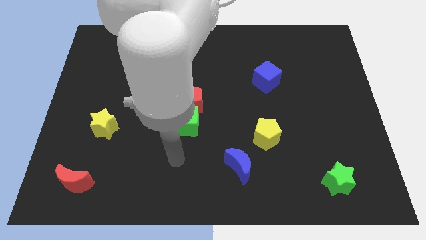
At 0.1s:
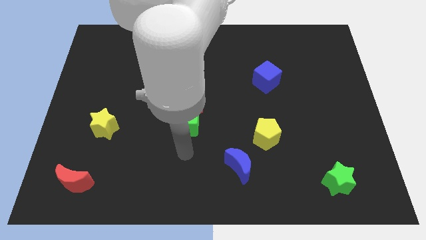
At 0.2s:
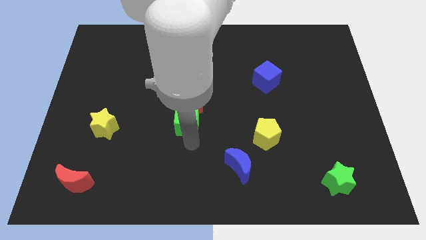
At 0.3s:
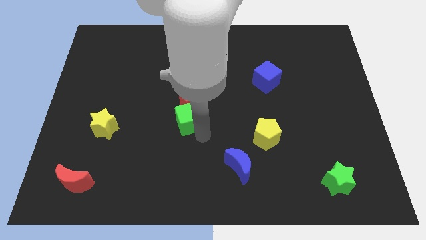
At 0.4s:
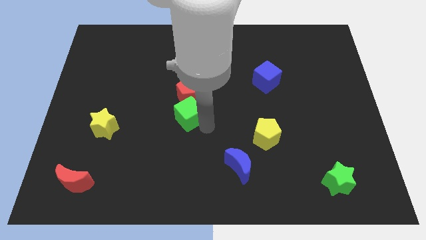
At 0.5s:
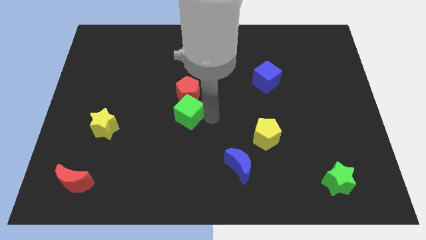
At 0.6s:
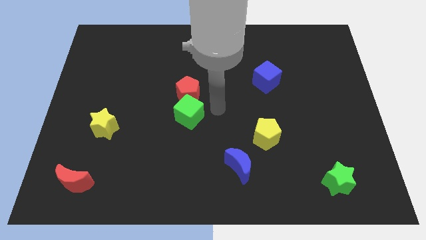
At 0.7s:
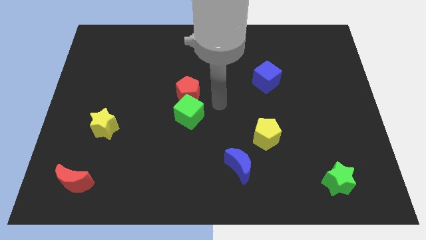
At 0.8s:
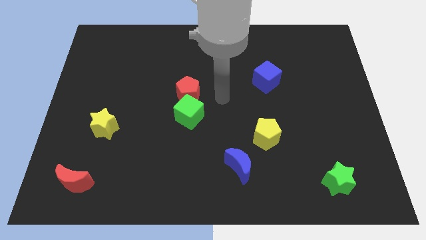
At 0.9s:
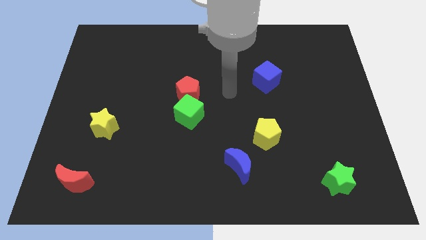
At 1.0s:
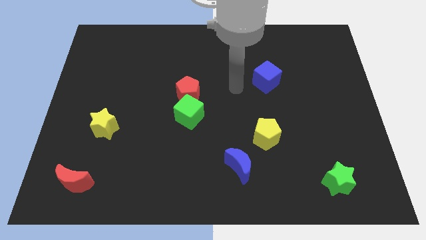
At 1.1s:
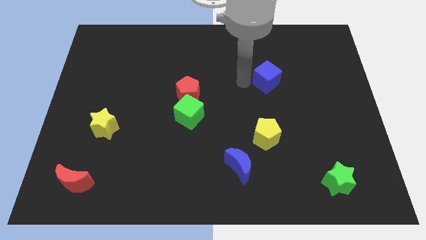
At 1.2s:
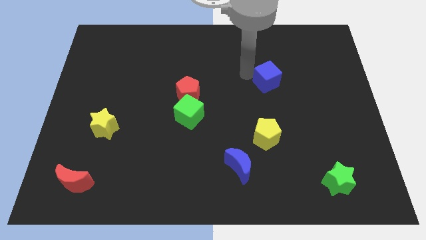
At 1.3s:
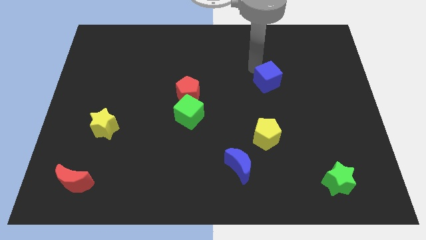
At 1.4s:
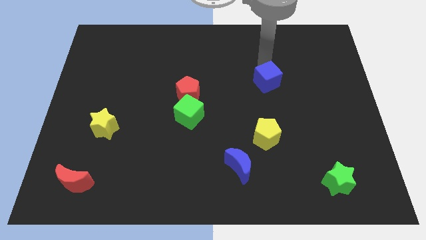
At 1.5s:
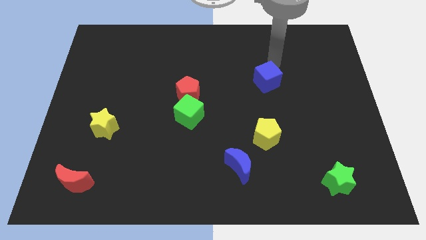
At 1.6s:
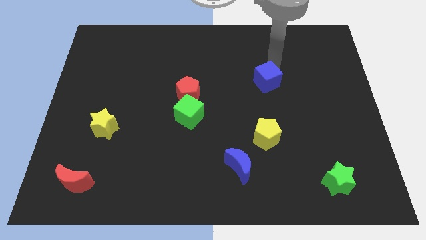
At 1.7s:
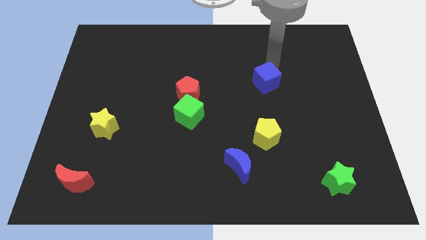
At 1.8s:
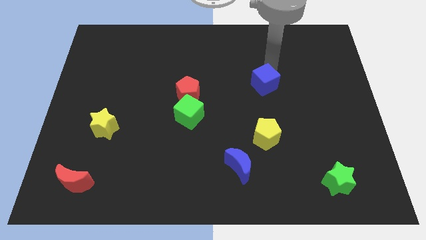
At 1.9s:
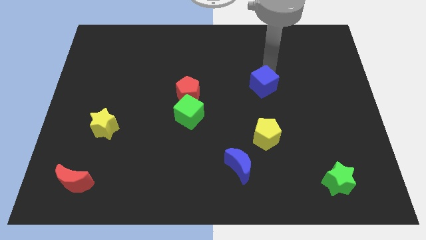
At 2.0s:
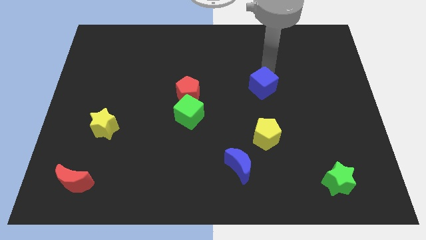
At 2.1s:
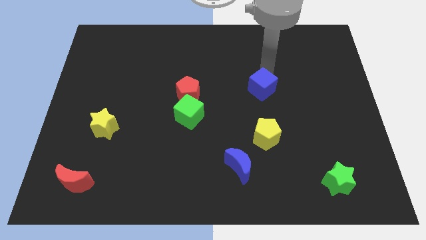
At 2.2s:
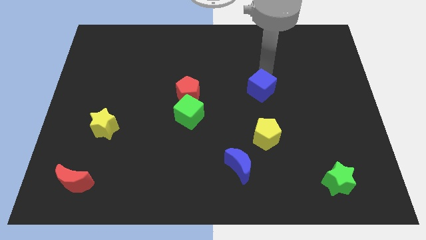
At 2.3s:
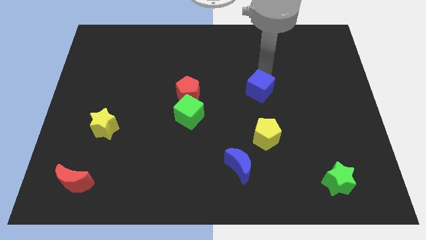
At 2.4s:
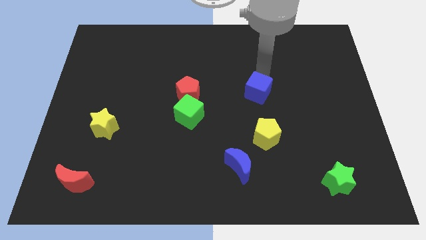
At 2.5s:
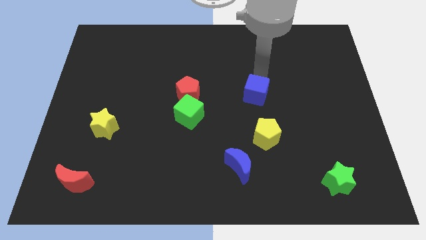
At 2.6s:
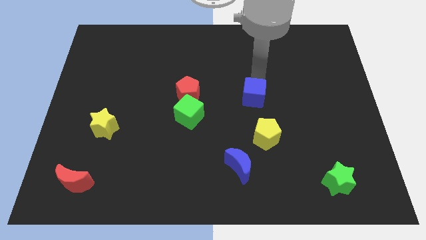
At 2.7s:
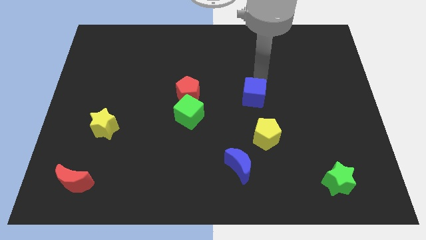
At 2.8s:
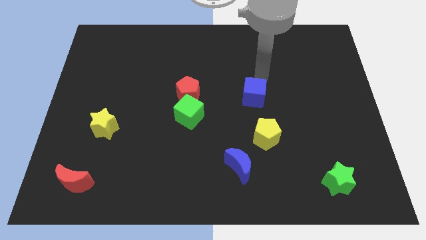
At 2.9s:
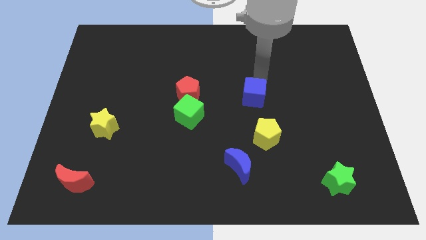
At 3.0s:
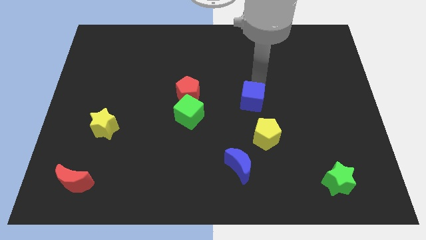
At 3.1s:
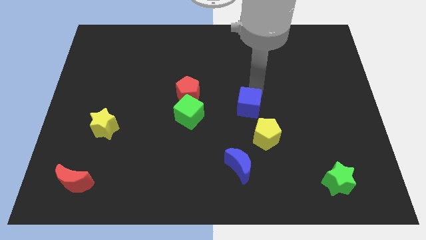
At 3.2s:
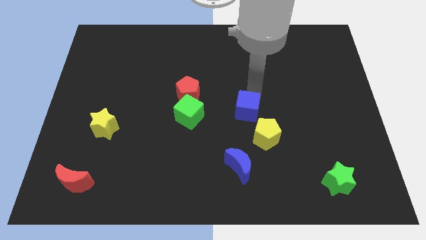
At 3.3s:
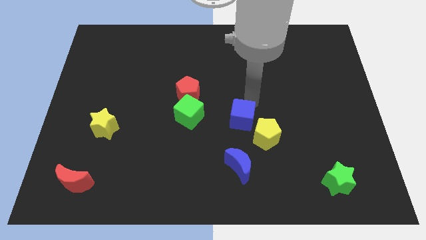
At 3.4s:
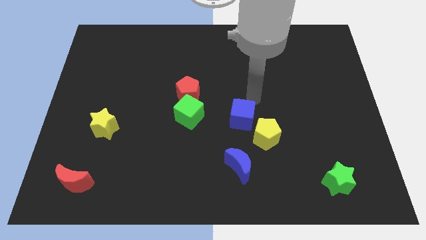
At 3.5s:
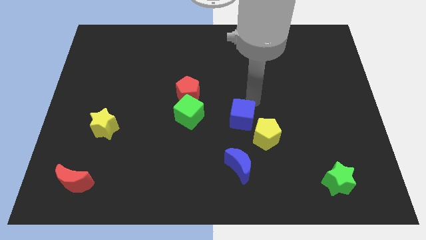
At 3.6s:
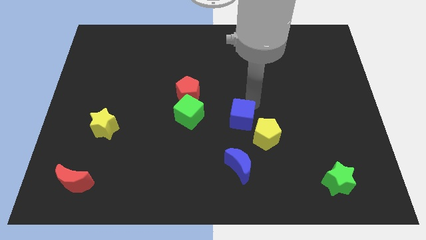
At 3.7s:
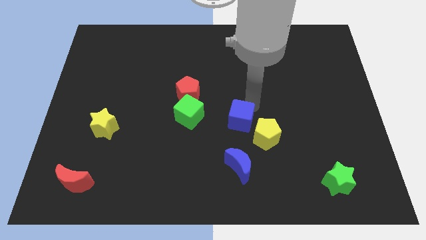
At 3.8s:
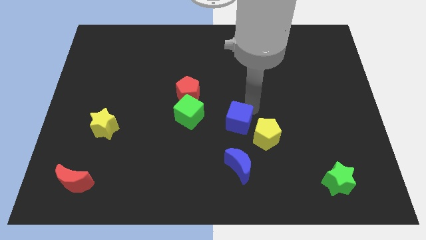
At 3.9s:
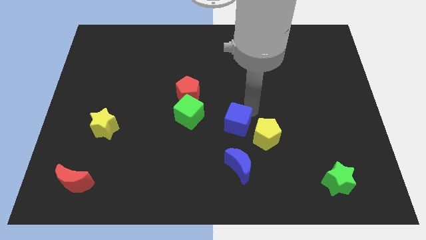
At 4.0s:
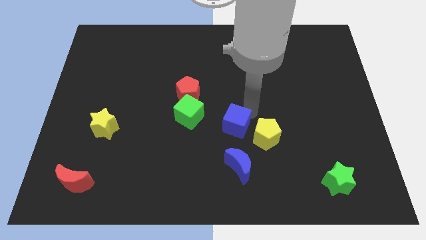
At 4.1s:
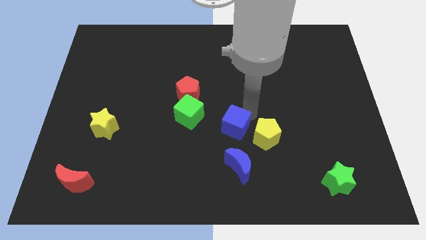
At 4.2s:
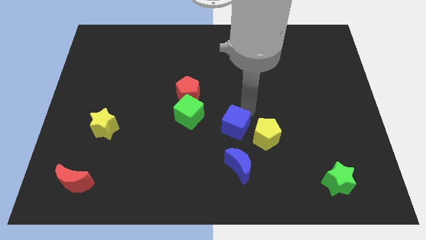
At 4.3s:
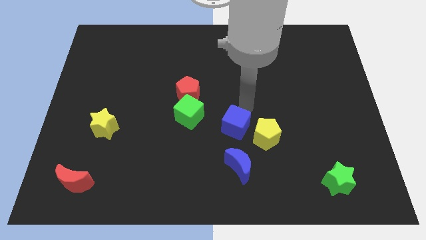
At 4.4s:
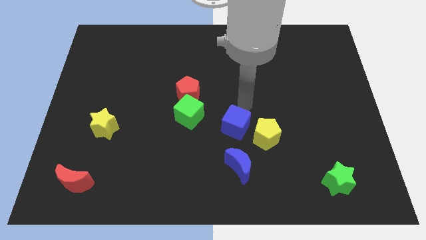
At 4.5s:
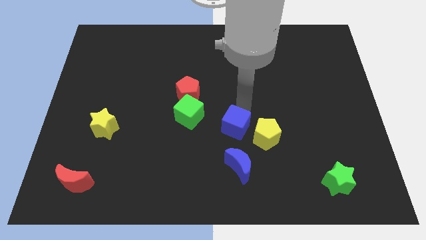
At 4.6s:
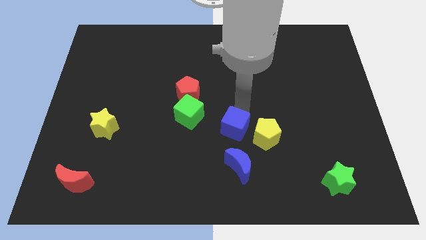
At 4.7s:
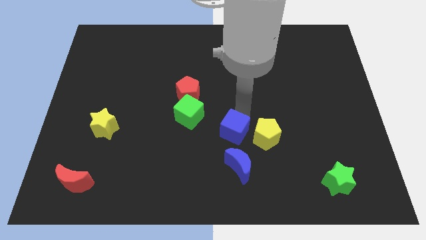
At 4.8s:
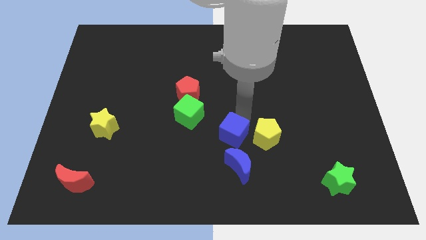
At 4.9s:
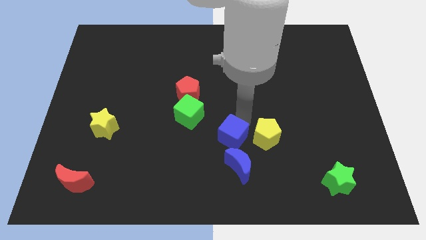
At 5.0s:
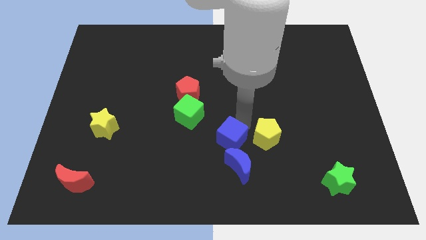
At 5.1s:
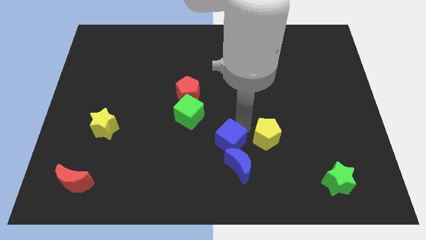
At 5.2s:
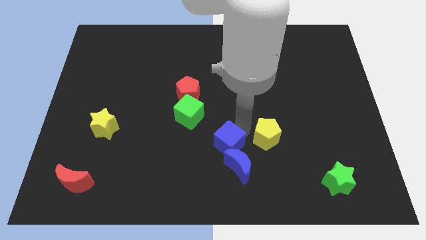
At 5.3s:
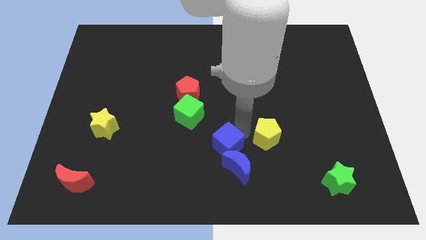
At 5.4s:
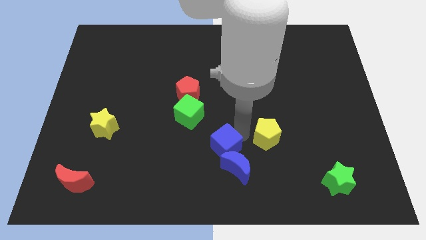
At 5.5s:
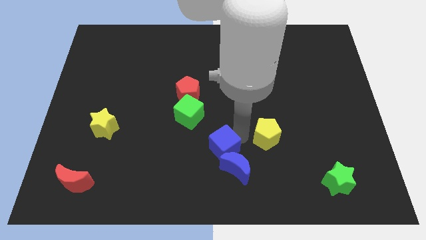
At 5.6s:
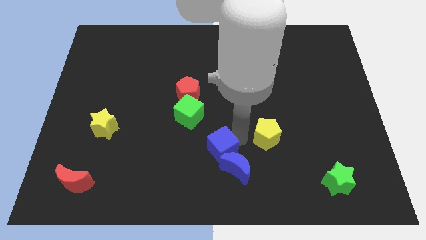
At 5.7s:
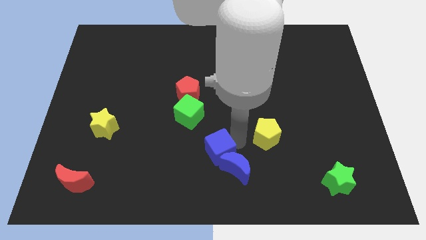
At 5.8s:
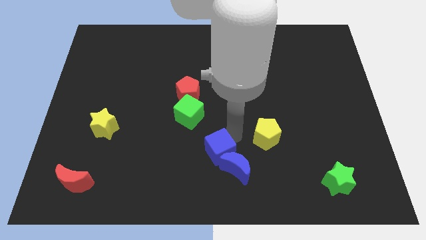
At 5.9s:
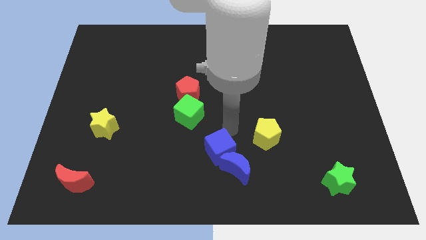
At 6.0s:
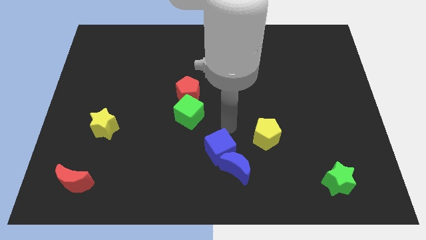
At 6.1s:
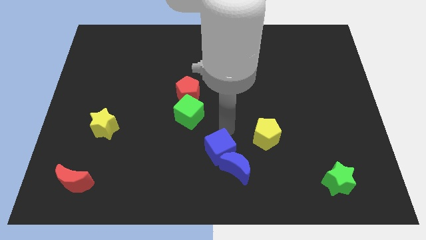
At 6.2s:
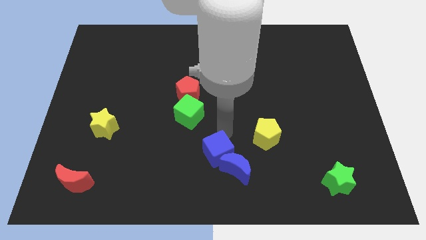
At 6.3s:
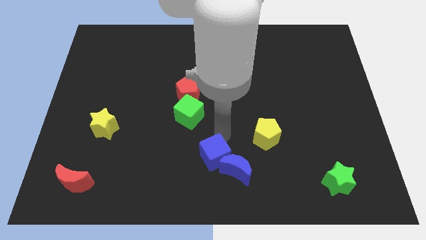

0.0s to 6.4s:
put the blue cube to the bottom
